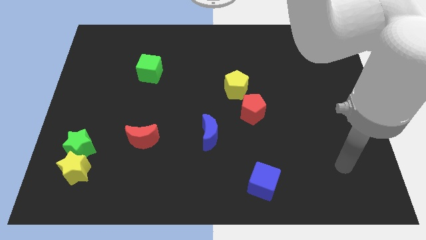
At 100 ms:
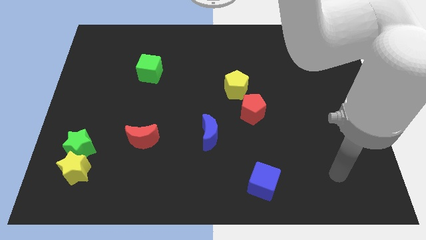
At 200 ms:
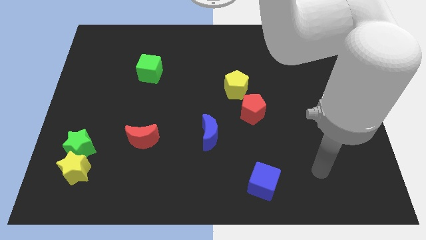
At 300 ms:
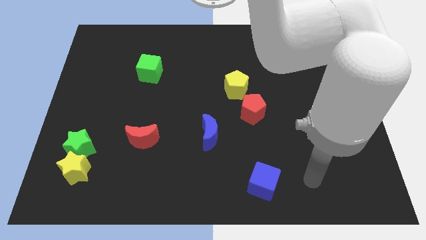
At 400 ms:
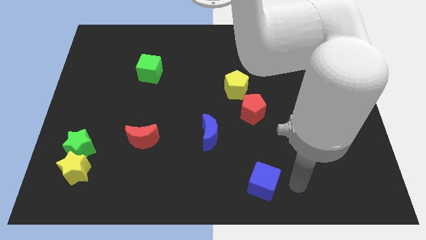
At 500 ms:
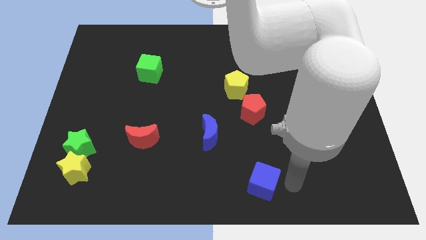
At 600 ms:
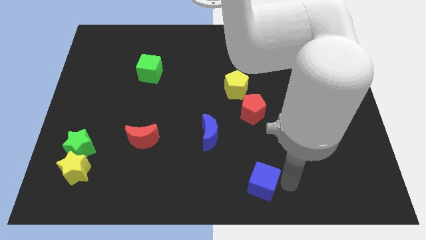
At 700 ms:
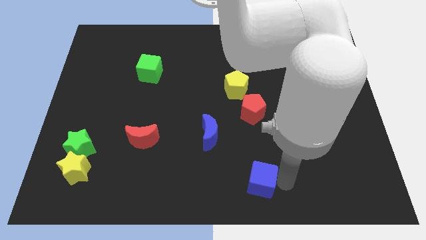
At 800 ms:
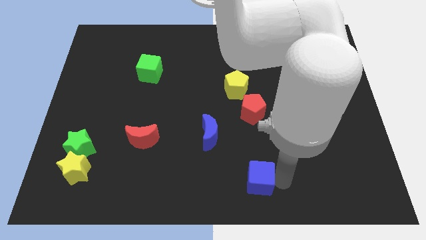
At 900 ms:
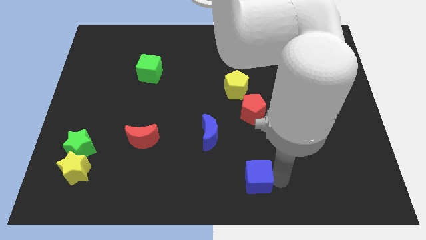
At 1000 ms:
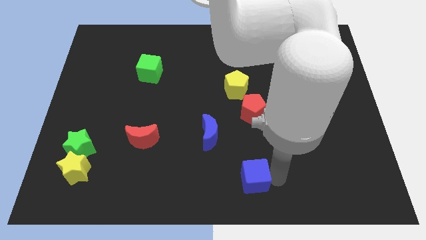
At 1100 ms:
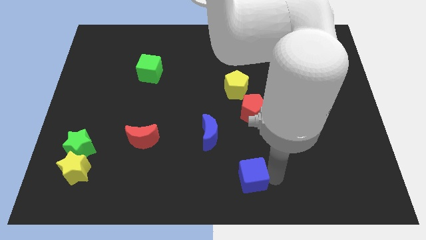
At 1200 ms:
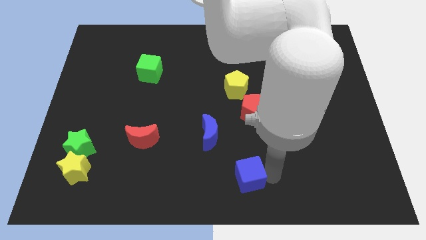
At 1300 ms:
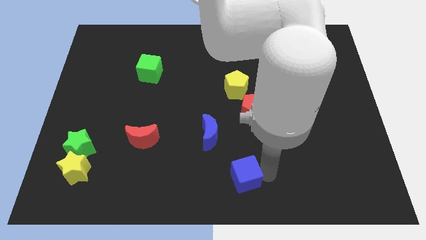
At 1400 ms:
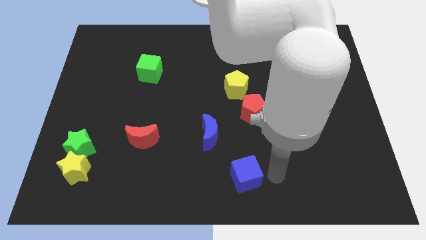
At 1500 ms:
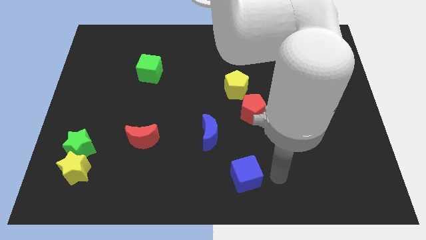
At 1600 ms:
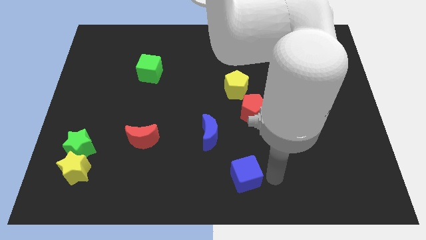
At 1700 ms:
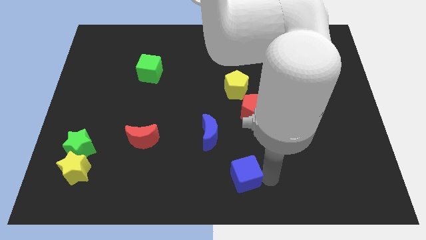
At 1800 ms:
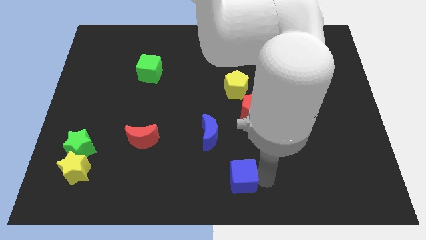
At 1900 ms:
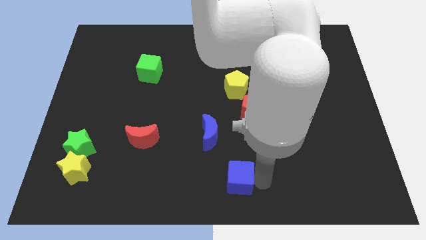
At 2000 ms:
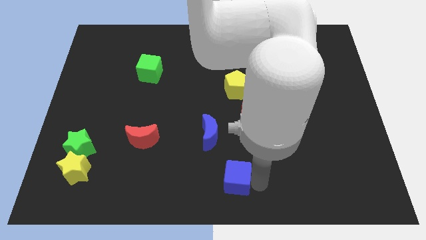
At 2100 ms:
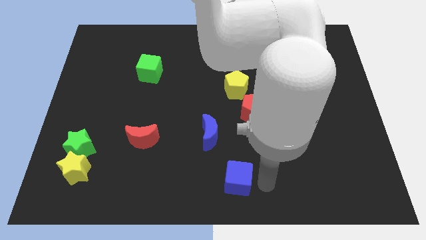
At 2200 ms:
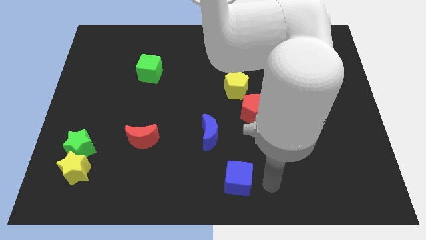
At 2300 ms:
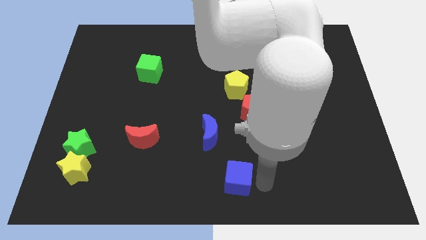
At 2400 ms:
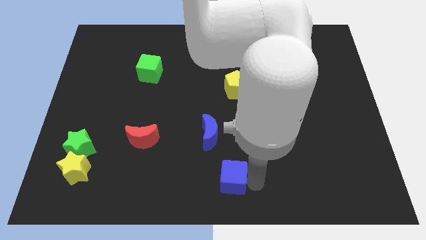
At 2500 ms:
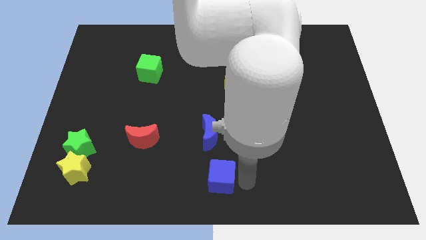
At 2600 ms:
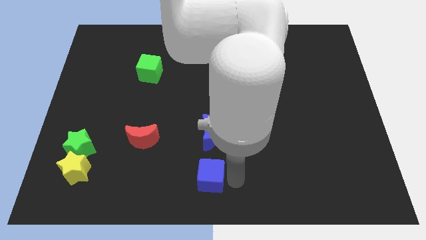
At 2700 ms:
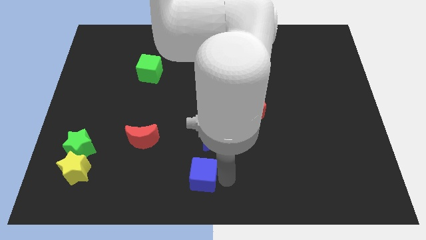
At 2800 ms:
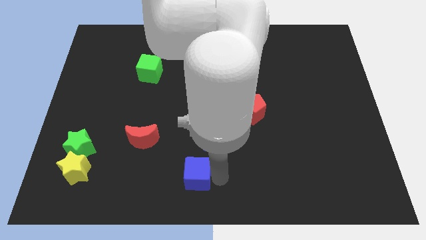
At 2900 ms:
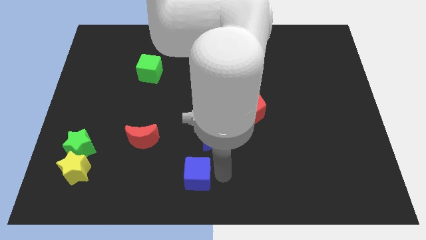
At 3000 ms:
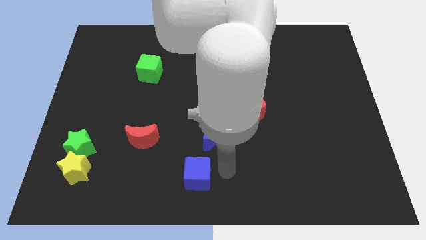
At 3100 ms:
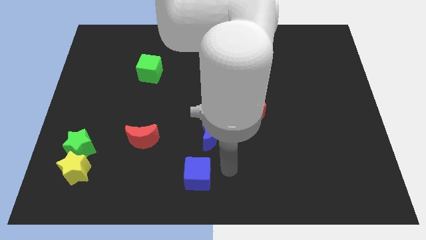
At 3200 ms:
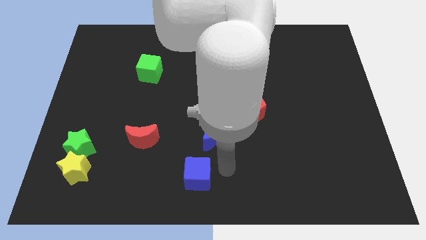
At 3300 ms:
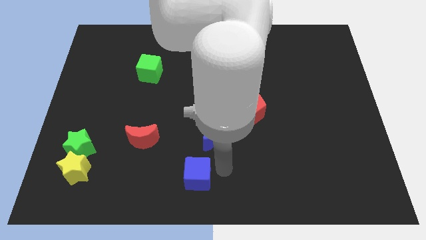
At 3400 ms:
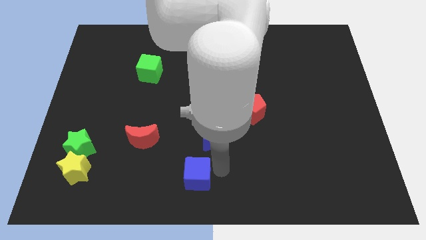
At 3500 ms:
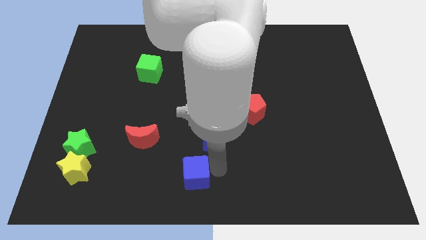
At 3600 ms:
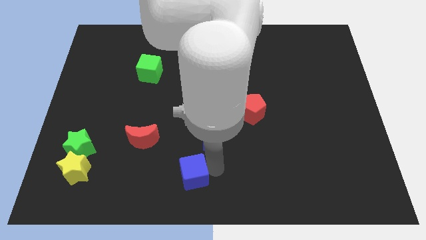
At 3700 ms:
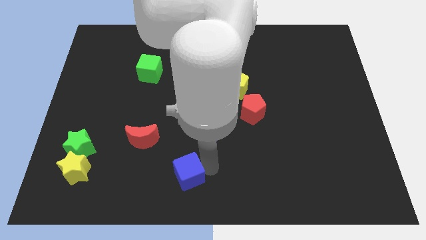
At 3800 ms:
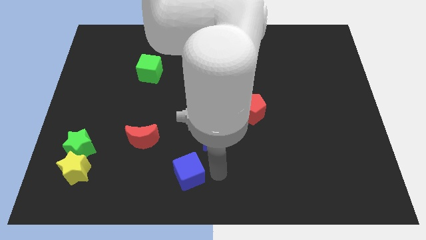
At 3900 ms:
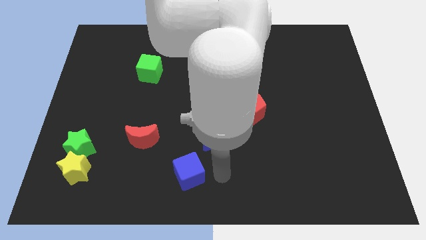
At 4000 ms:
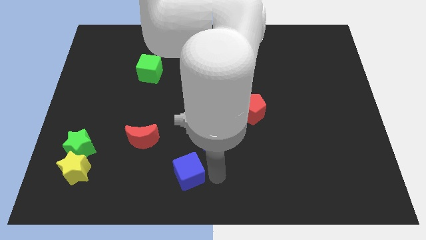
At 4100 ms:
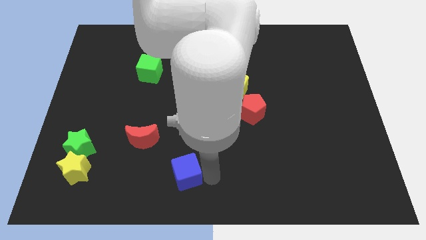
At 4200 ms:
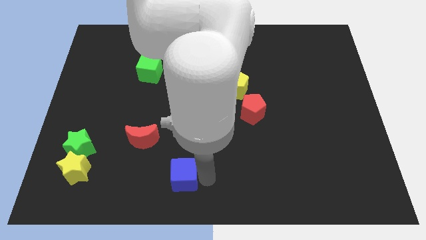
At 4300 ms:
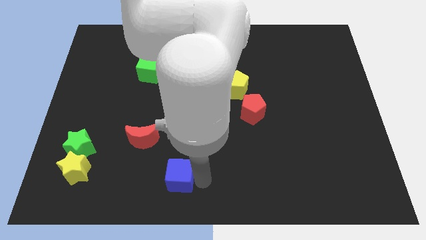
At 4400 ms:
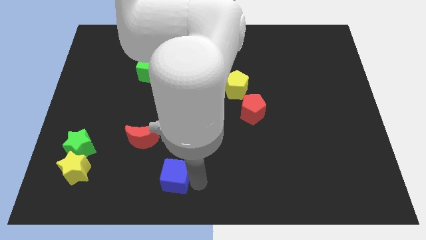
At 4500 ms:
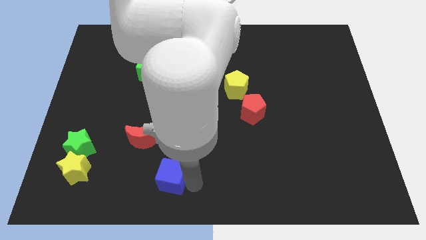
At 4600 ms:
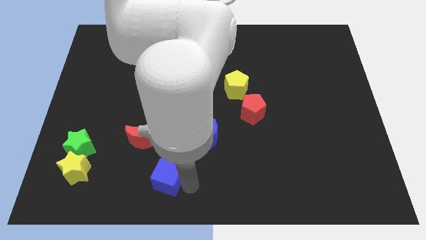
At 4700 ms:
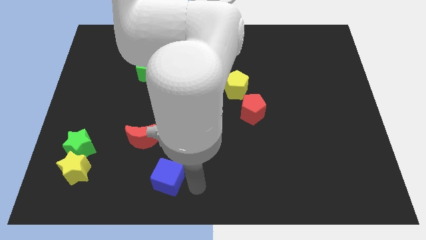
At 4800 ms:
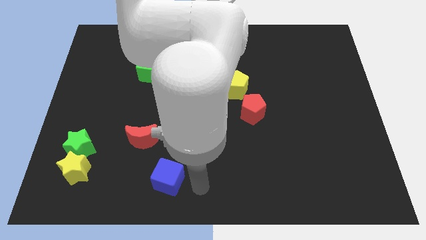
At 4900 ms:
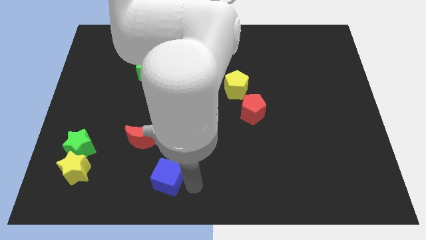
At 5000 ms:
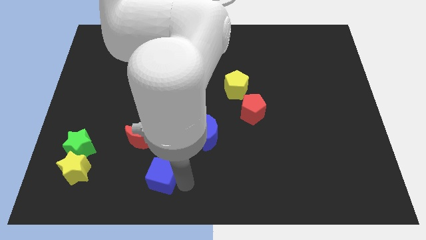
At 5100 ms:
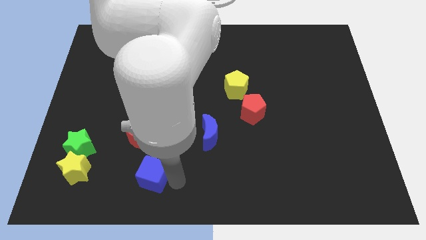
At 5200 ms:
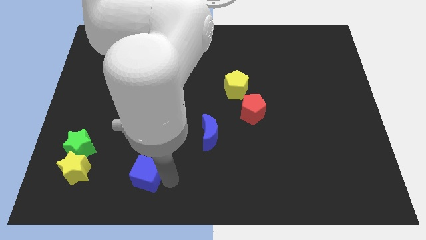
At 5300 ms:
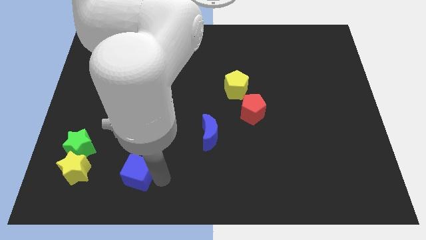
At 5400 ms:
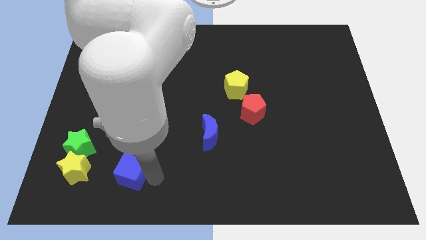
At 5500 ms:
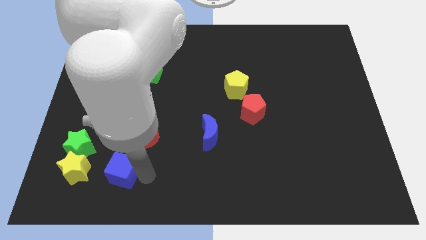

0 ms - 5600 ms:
slide the blue cube to the bottom right side of the green star
